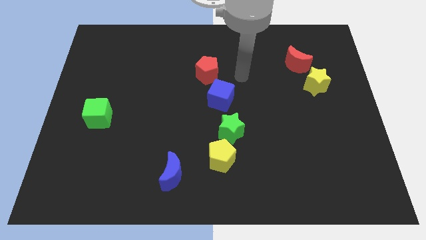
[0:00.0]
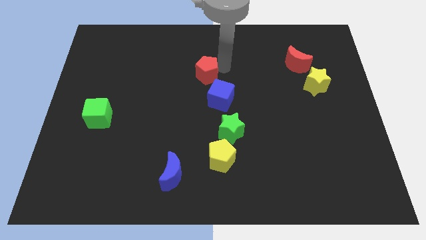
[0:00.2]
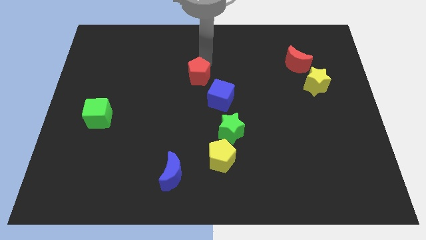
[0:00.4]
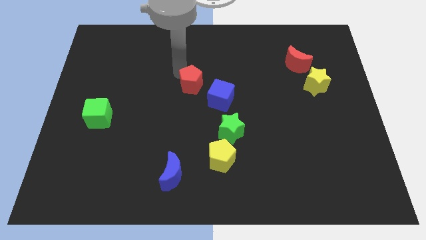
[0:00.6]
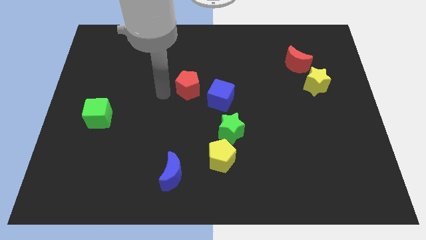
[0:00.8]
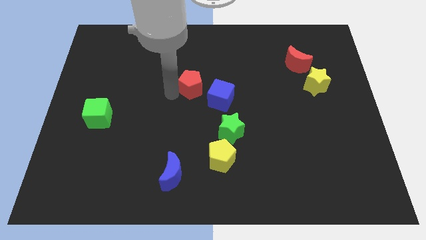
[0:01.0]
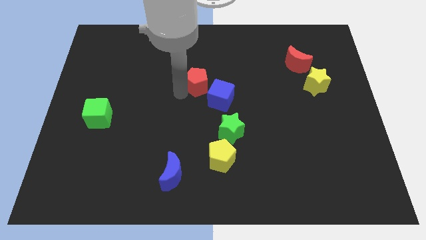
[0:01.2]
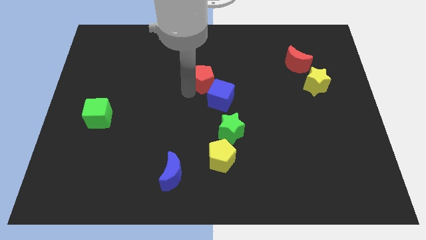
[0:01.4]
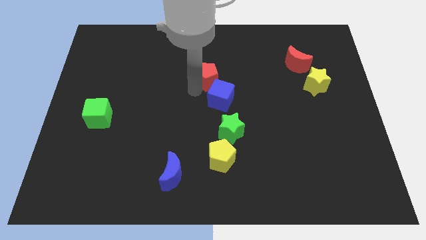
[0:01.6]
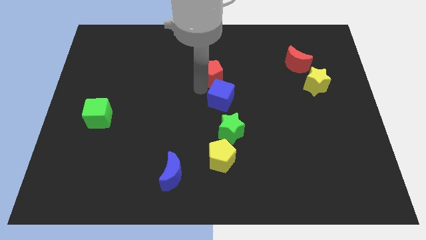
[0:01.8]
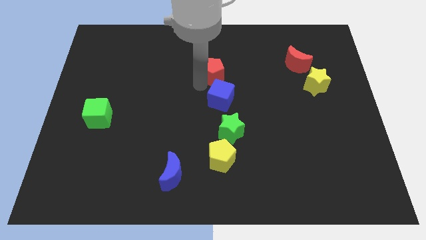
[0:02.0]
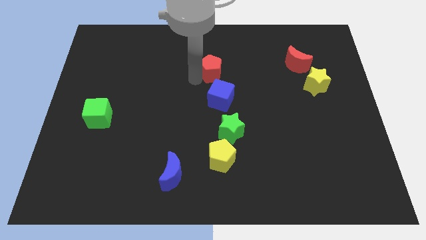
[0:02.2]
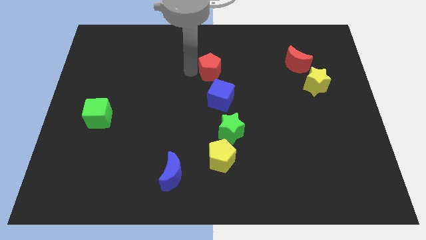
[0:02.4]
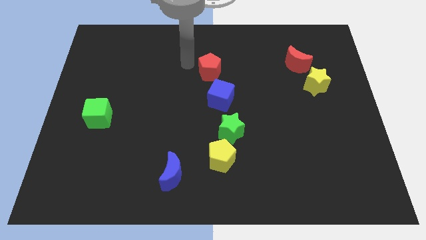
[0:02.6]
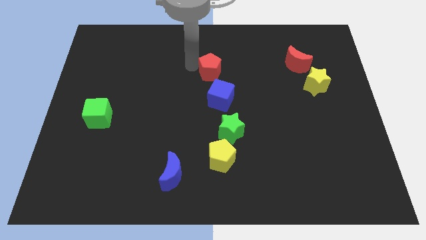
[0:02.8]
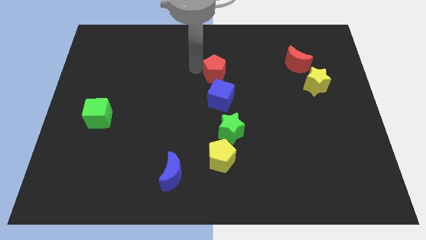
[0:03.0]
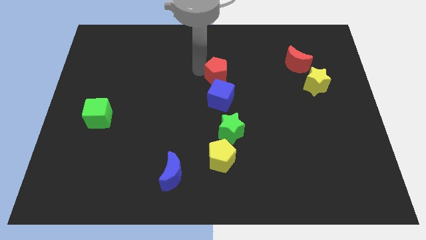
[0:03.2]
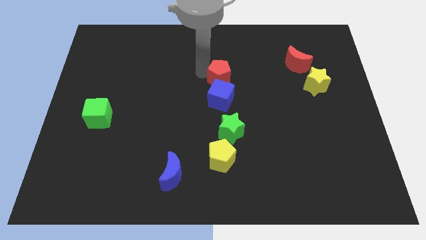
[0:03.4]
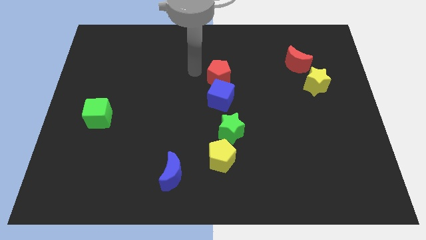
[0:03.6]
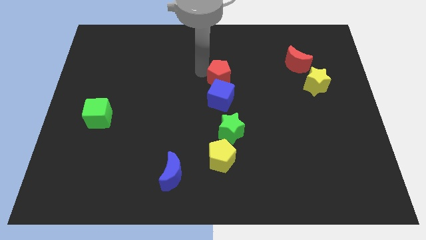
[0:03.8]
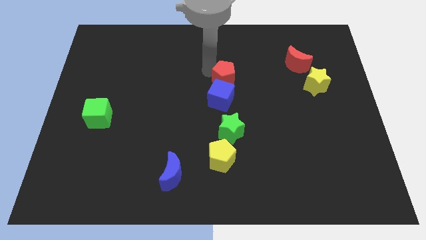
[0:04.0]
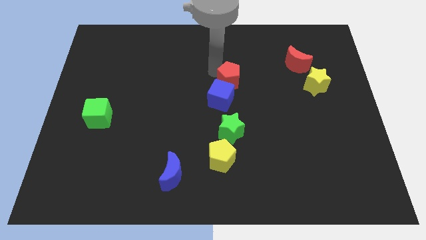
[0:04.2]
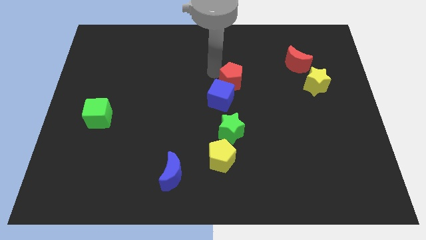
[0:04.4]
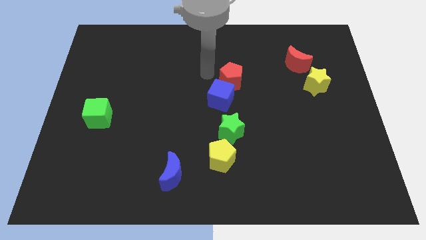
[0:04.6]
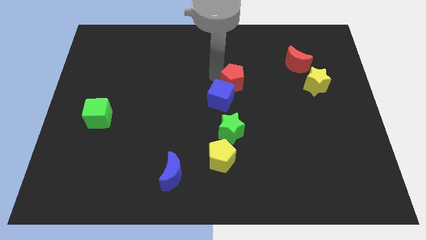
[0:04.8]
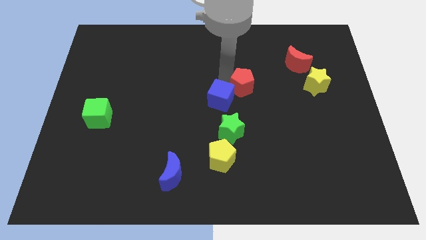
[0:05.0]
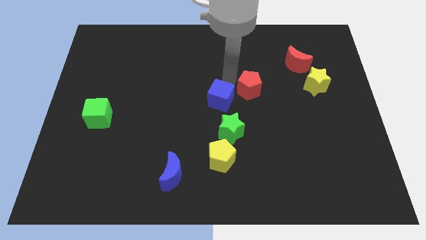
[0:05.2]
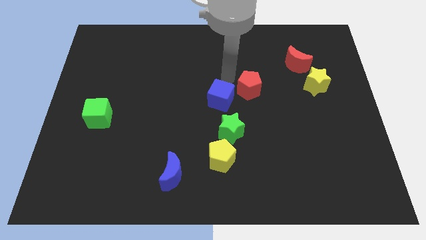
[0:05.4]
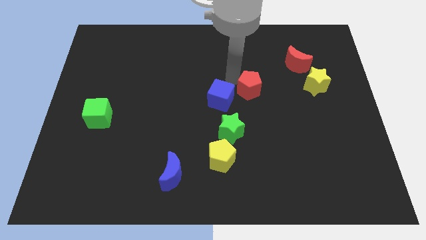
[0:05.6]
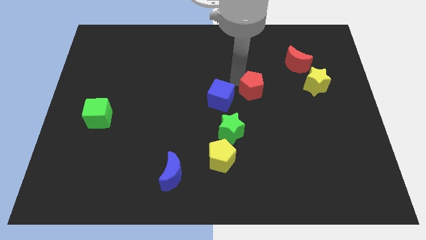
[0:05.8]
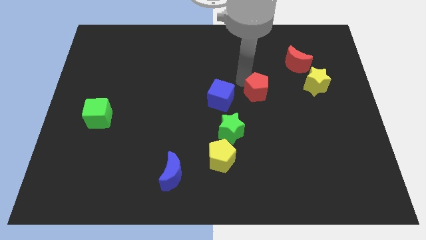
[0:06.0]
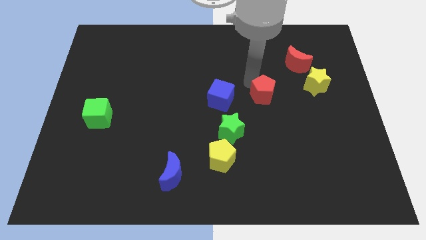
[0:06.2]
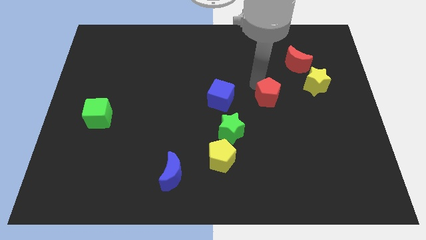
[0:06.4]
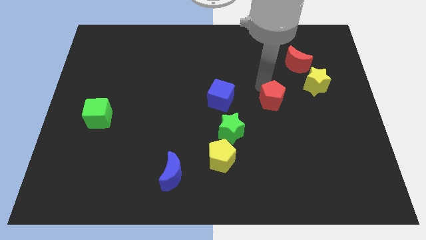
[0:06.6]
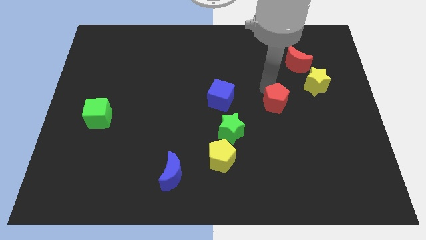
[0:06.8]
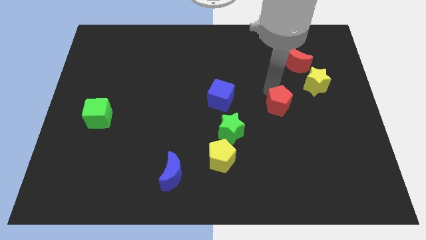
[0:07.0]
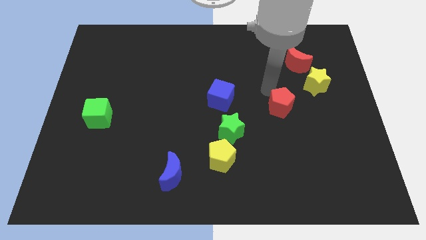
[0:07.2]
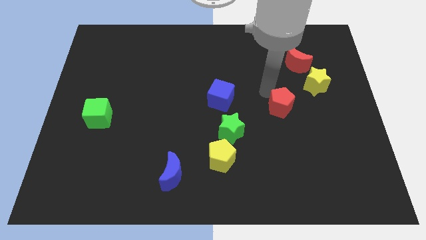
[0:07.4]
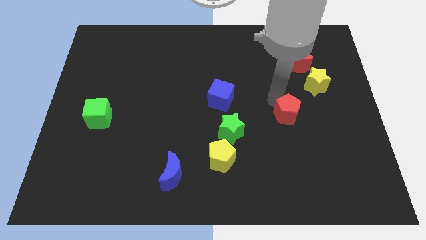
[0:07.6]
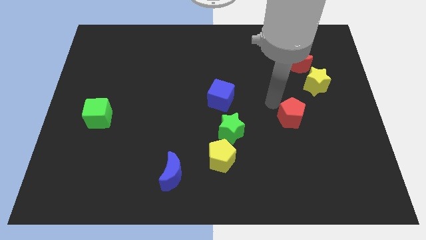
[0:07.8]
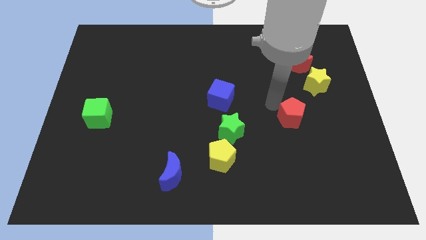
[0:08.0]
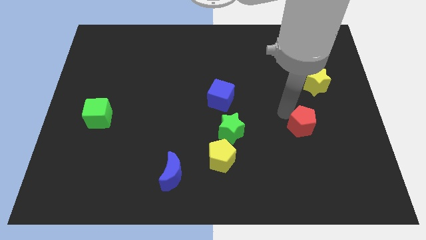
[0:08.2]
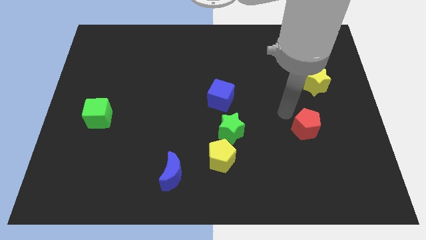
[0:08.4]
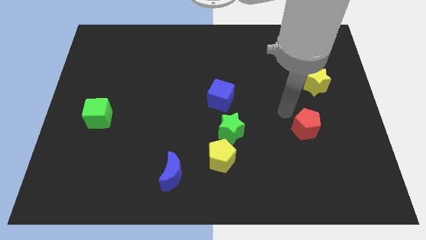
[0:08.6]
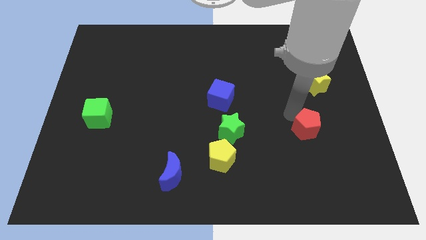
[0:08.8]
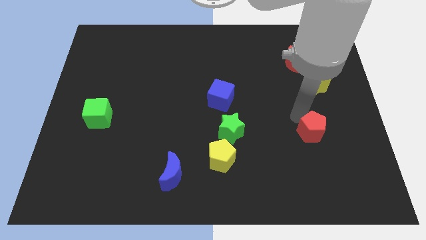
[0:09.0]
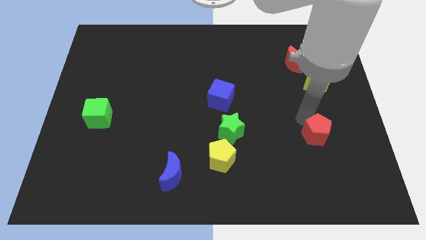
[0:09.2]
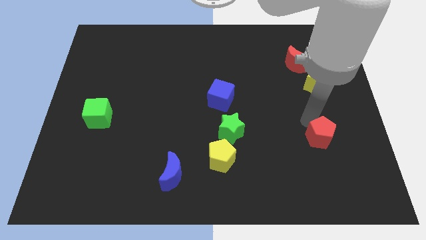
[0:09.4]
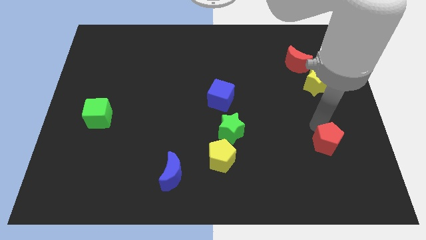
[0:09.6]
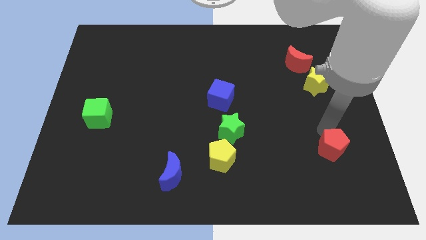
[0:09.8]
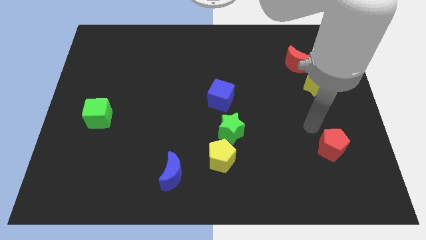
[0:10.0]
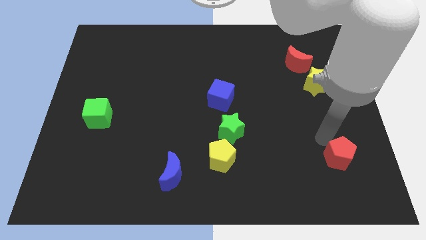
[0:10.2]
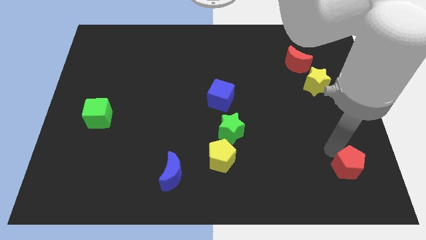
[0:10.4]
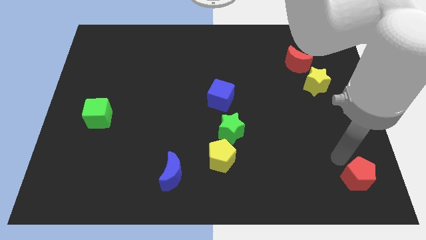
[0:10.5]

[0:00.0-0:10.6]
push the red pentagon to the bottom right
